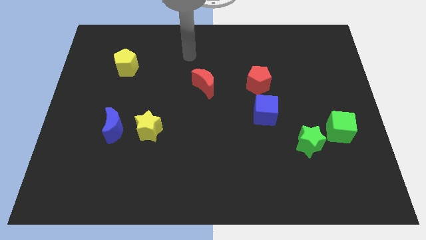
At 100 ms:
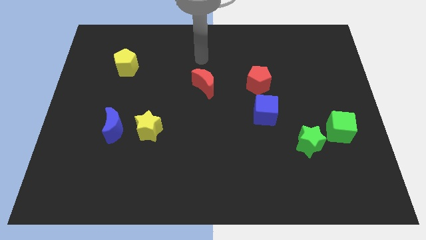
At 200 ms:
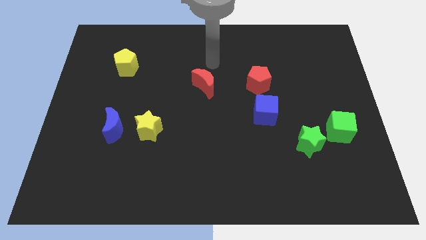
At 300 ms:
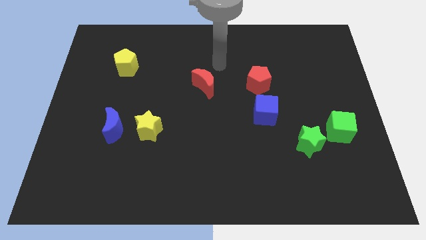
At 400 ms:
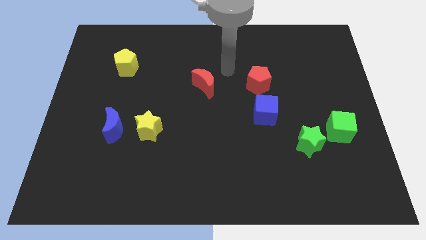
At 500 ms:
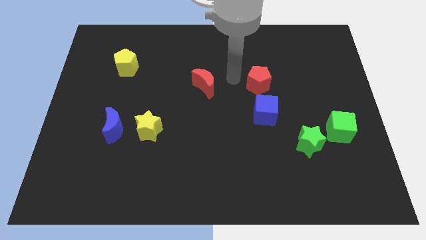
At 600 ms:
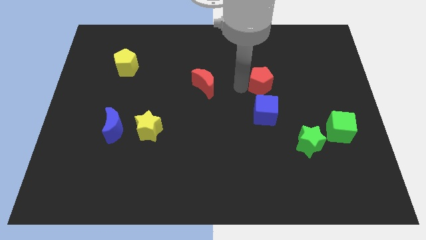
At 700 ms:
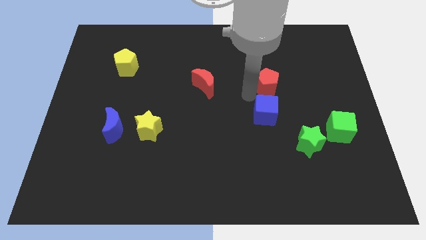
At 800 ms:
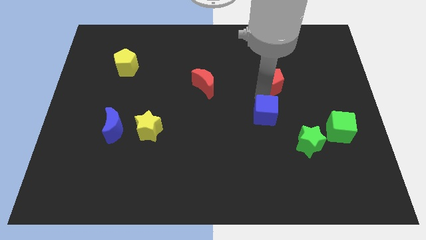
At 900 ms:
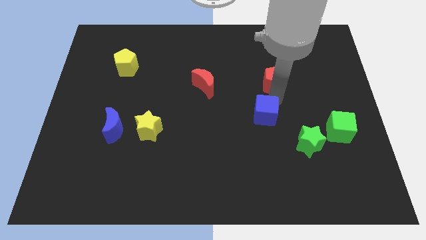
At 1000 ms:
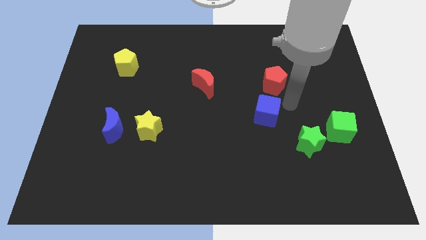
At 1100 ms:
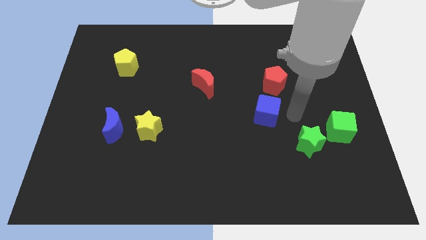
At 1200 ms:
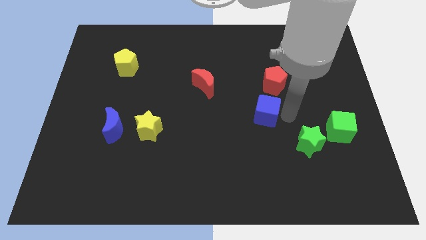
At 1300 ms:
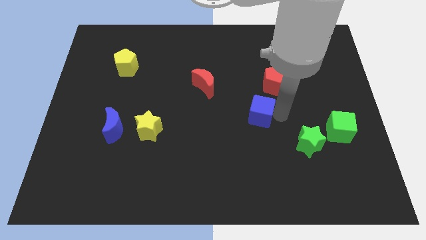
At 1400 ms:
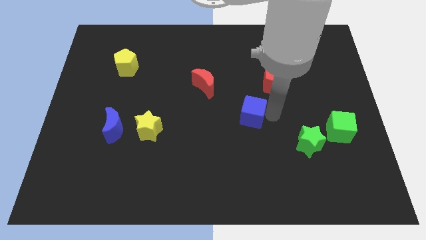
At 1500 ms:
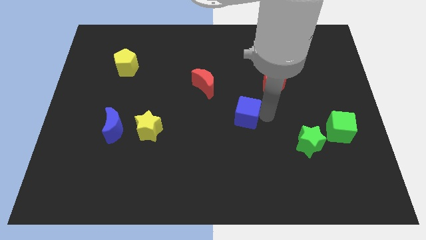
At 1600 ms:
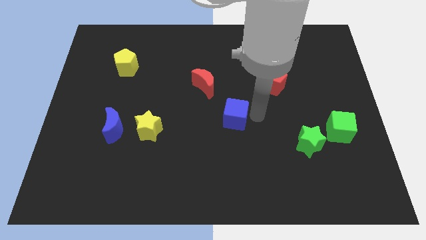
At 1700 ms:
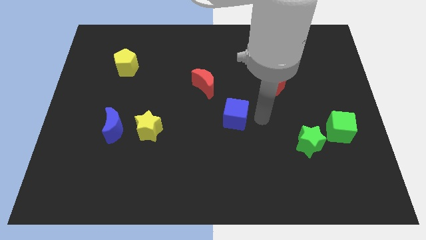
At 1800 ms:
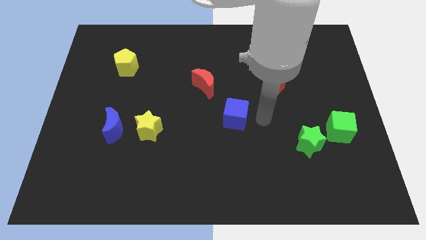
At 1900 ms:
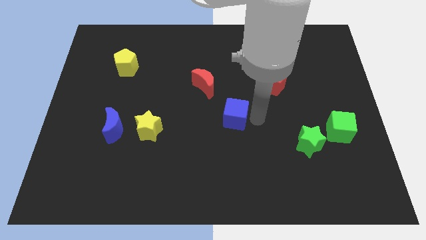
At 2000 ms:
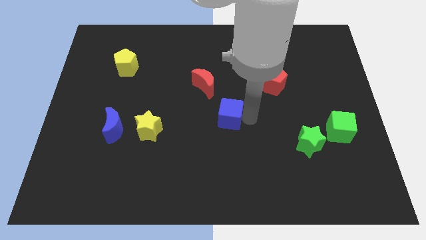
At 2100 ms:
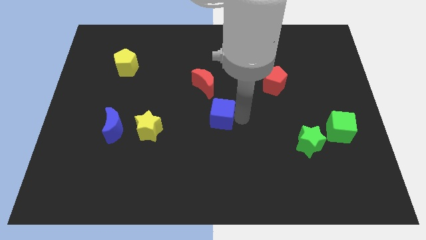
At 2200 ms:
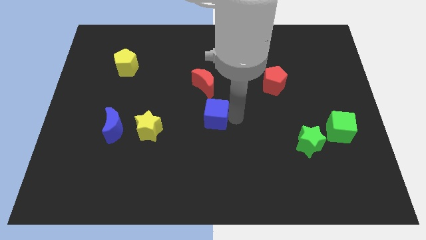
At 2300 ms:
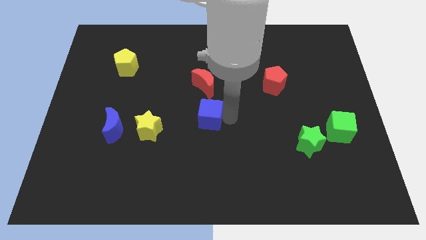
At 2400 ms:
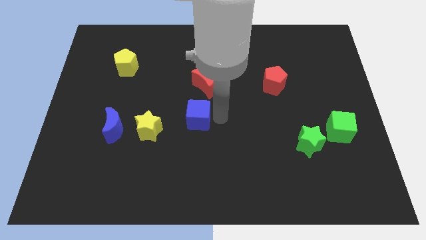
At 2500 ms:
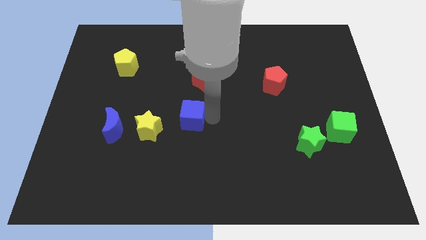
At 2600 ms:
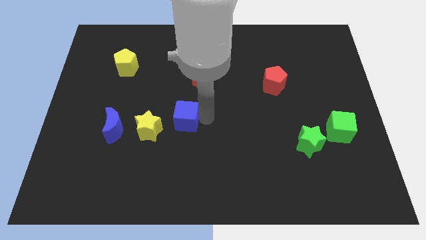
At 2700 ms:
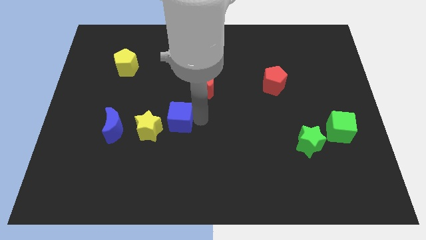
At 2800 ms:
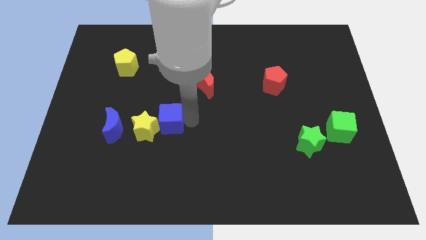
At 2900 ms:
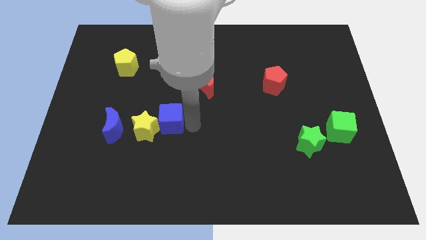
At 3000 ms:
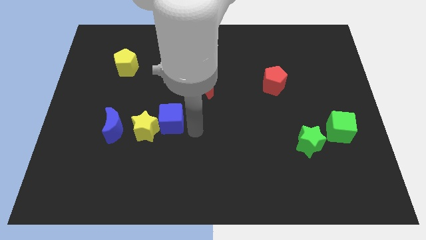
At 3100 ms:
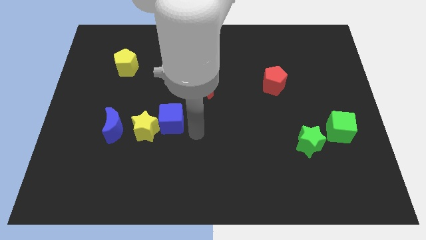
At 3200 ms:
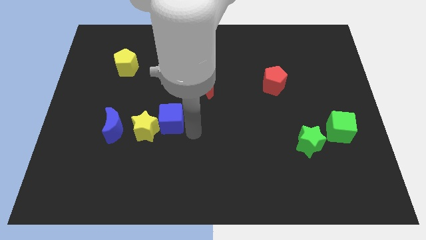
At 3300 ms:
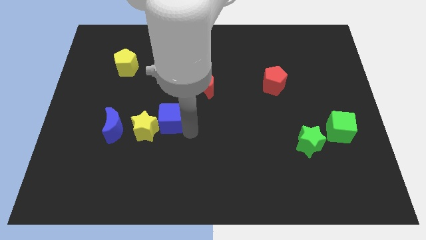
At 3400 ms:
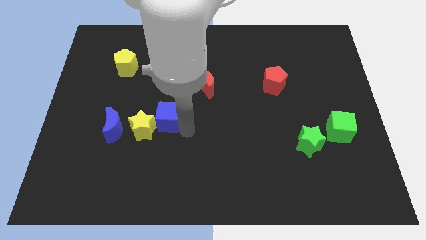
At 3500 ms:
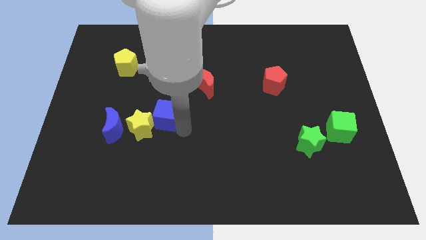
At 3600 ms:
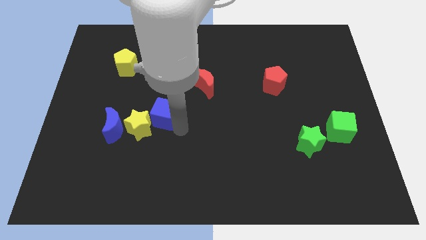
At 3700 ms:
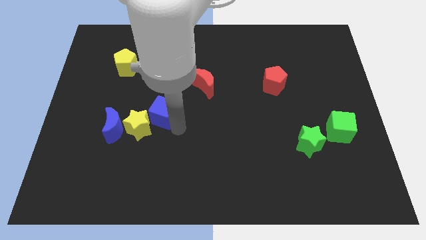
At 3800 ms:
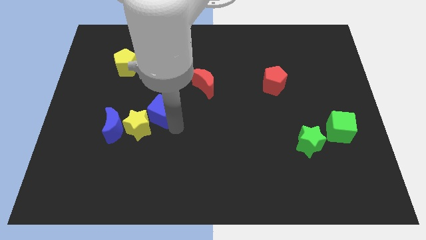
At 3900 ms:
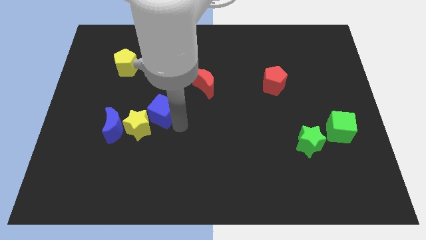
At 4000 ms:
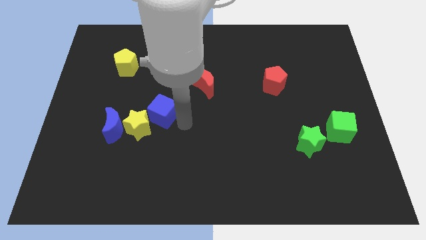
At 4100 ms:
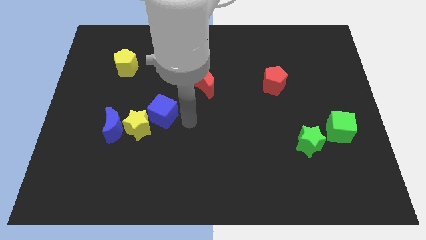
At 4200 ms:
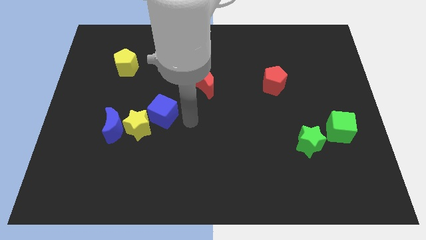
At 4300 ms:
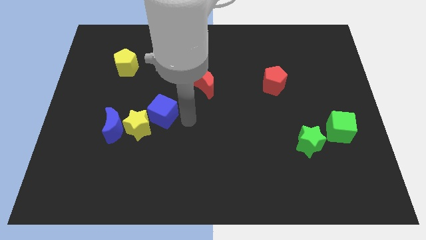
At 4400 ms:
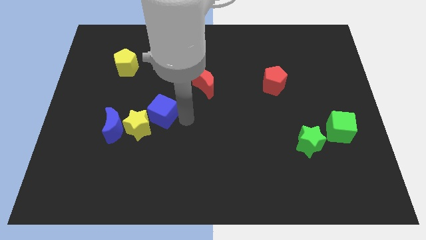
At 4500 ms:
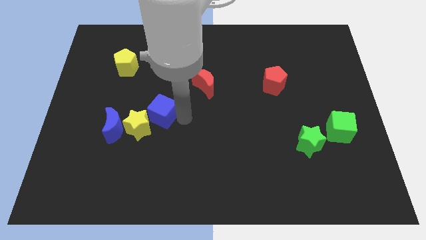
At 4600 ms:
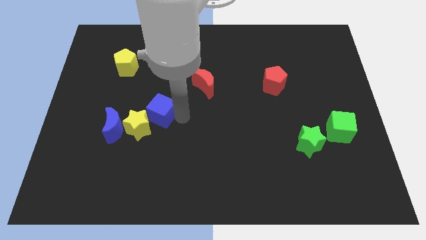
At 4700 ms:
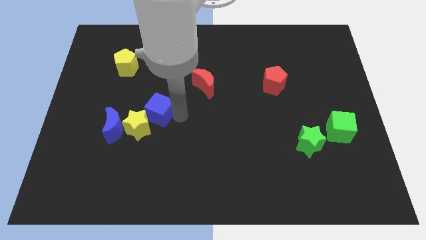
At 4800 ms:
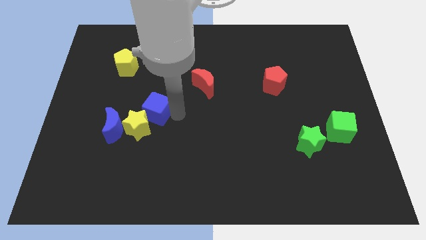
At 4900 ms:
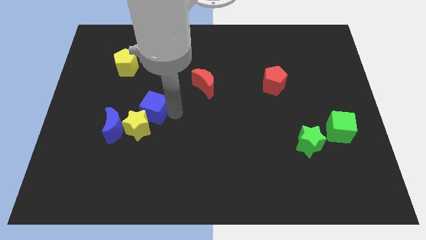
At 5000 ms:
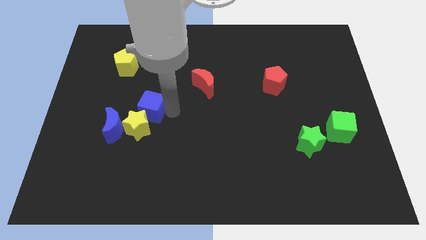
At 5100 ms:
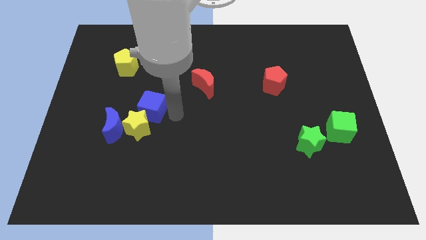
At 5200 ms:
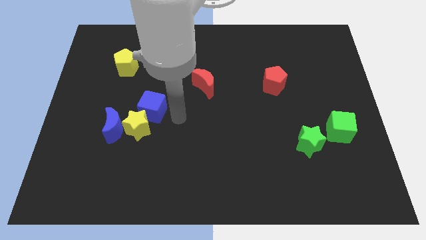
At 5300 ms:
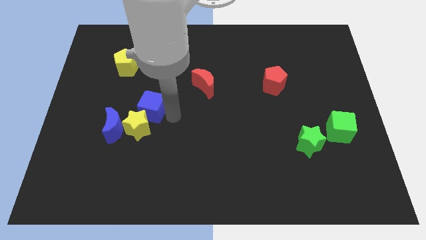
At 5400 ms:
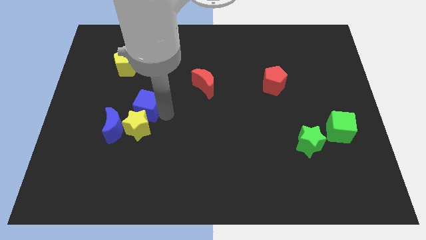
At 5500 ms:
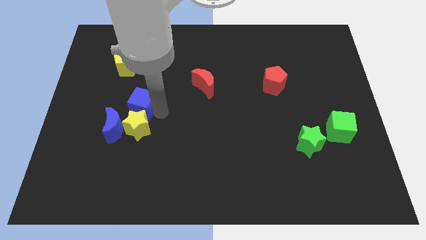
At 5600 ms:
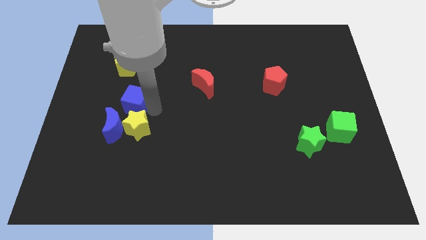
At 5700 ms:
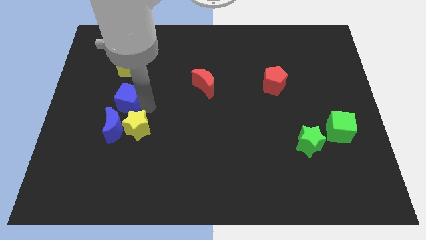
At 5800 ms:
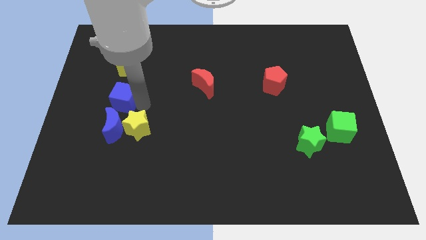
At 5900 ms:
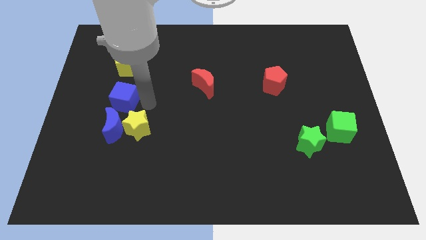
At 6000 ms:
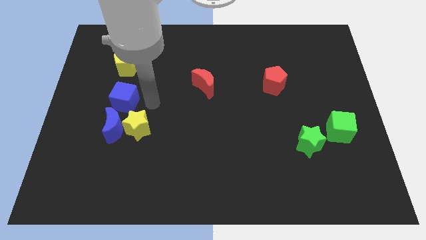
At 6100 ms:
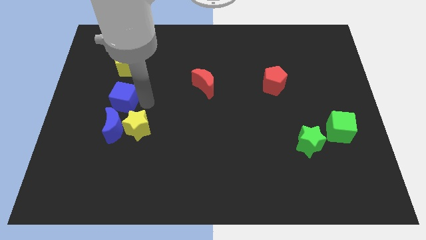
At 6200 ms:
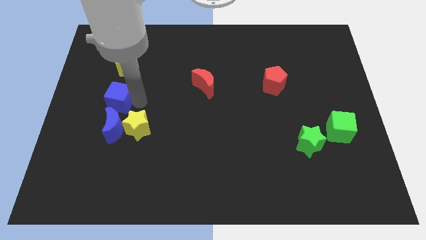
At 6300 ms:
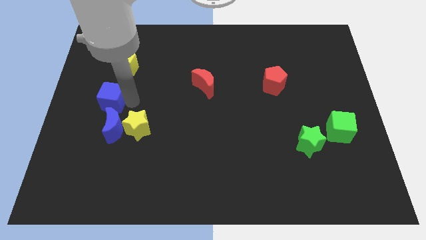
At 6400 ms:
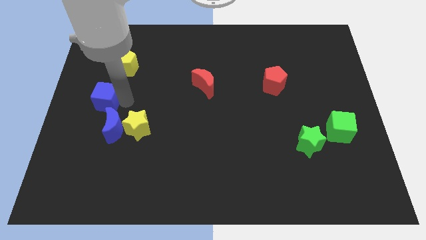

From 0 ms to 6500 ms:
slide the blue cube to the center left
